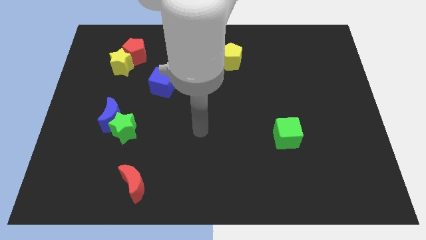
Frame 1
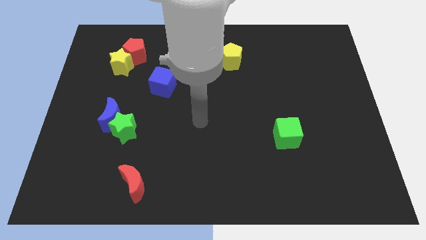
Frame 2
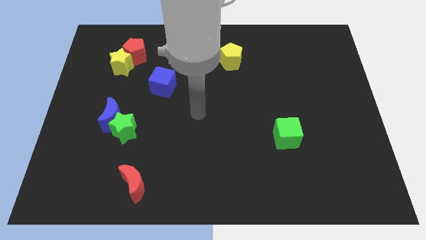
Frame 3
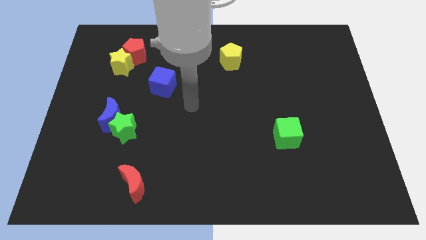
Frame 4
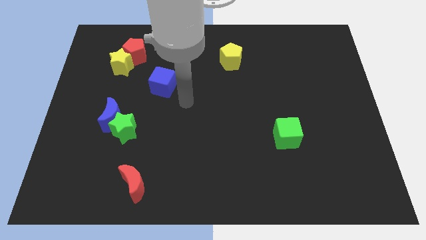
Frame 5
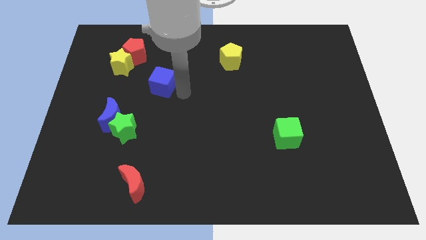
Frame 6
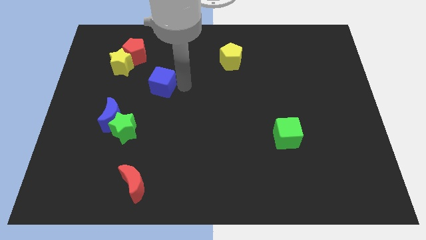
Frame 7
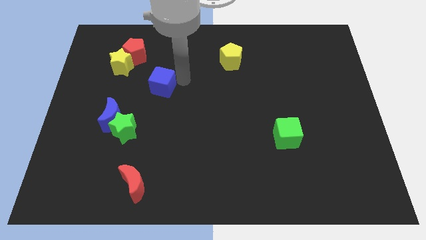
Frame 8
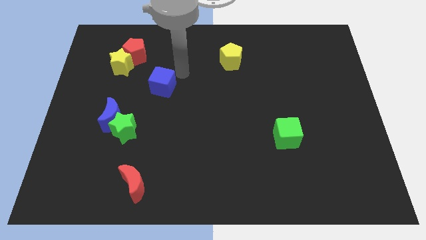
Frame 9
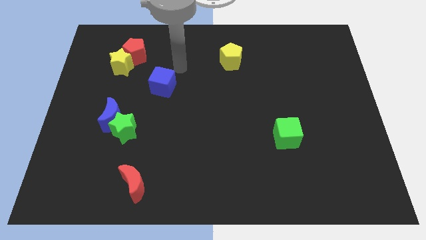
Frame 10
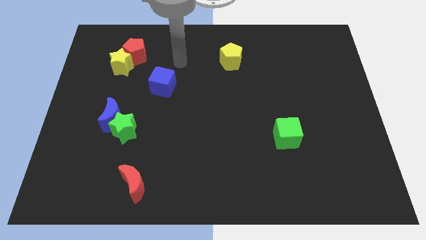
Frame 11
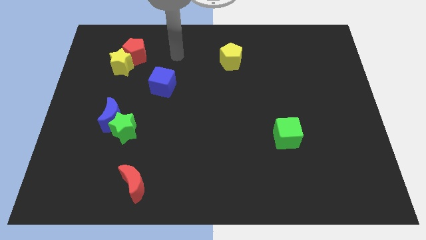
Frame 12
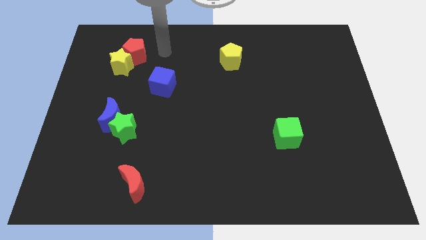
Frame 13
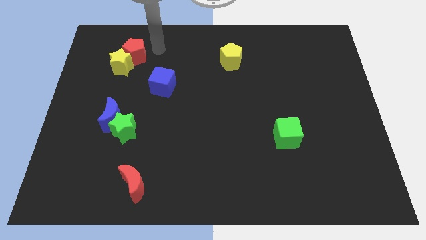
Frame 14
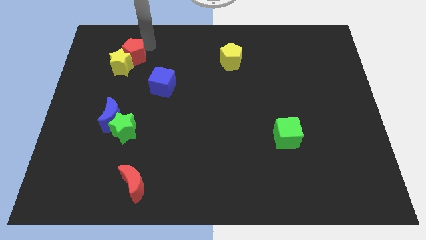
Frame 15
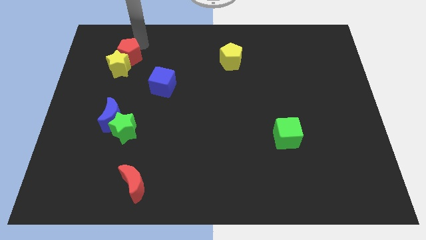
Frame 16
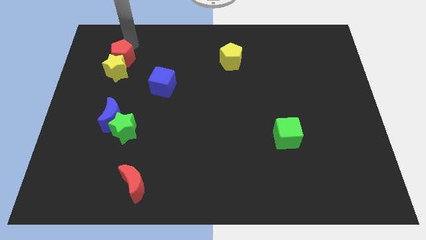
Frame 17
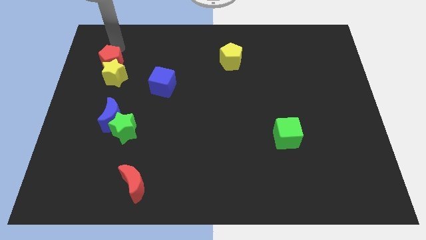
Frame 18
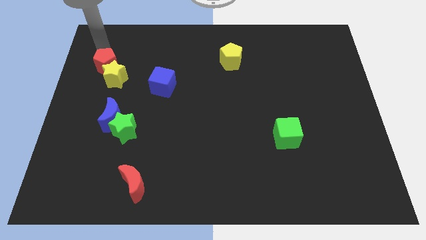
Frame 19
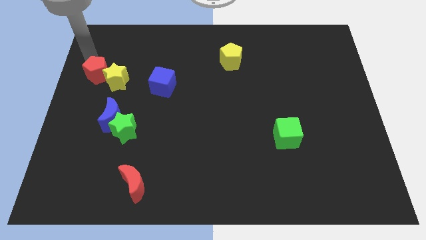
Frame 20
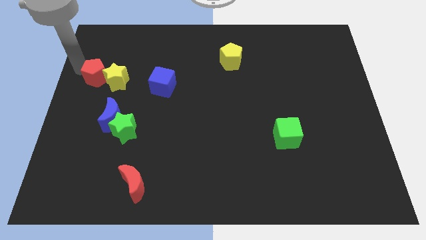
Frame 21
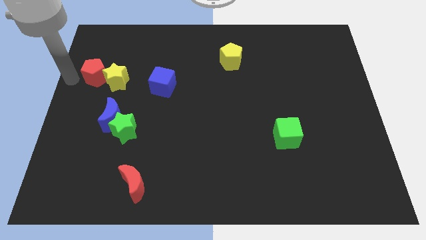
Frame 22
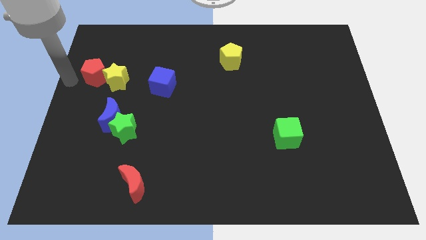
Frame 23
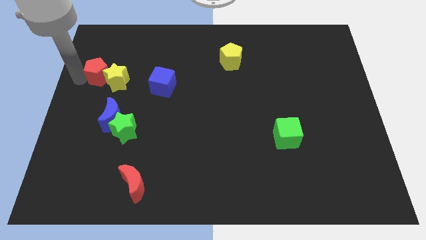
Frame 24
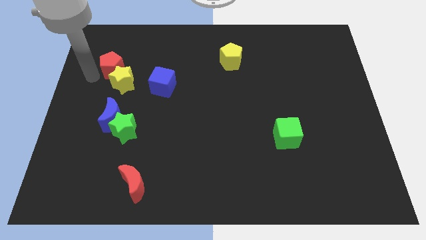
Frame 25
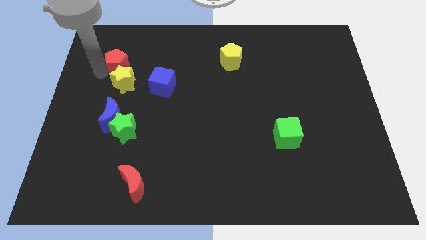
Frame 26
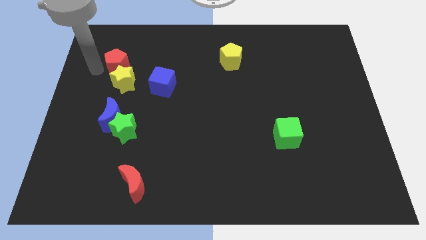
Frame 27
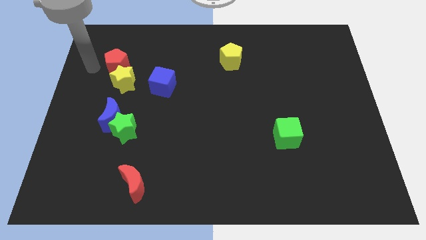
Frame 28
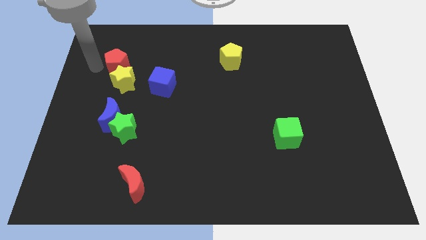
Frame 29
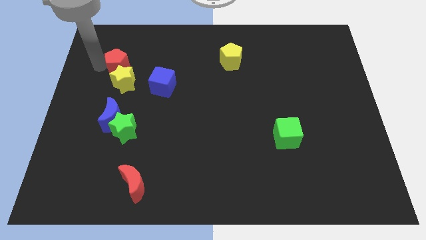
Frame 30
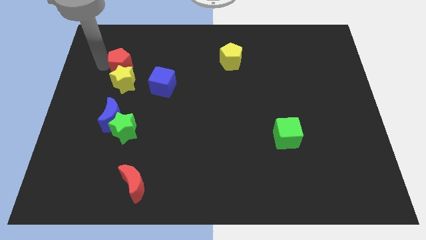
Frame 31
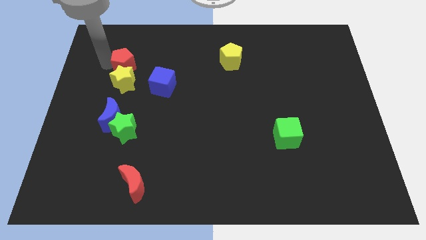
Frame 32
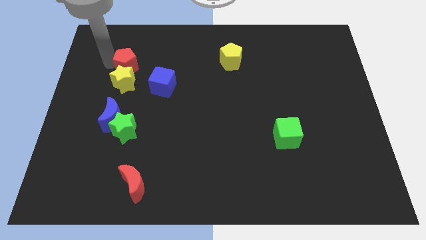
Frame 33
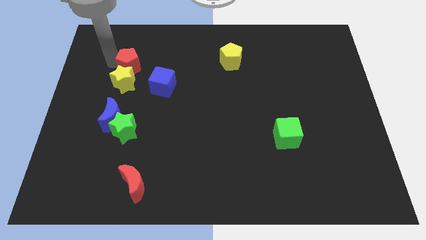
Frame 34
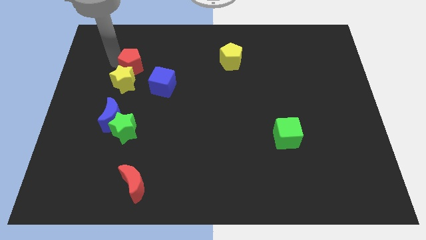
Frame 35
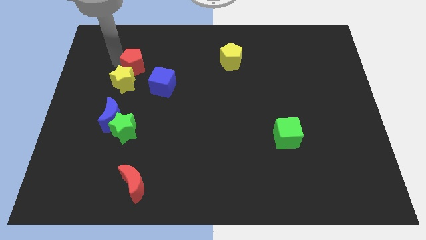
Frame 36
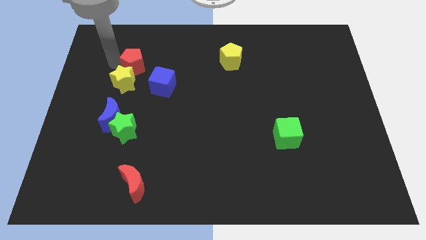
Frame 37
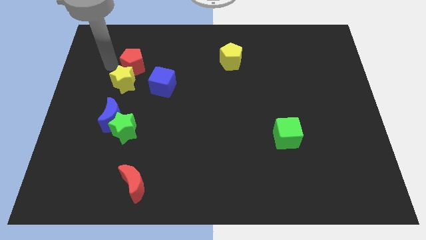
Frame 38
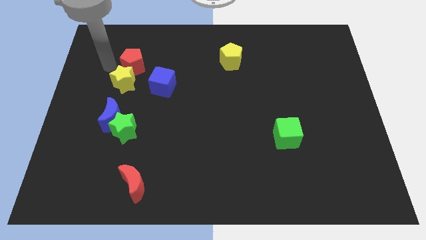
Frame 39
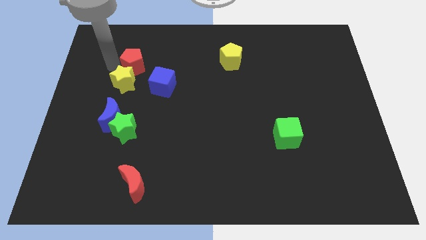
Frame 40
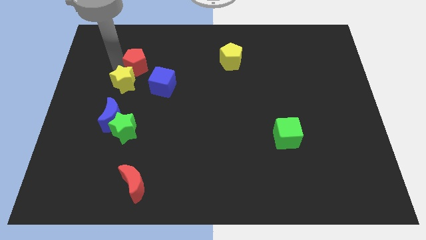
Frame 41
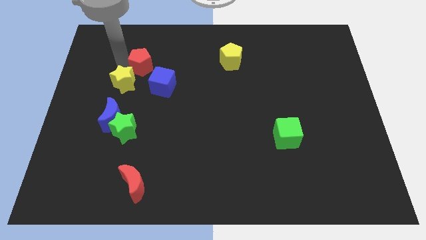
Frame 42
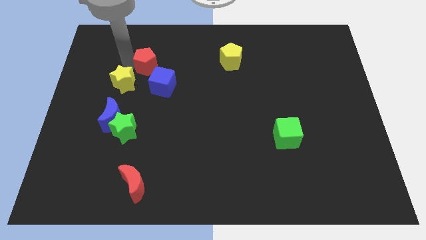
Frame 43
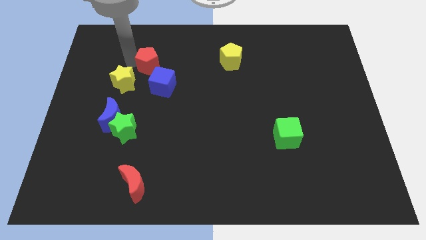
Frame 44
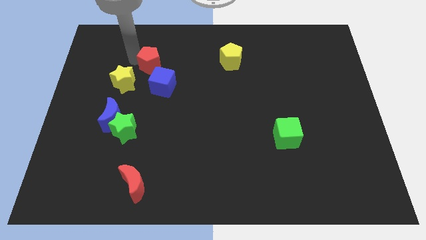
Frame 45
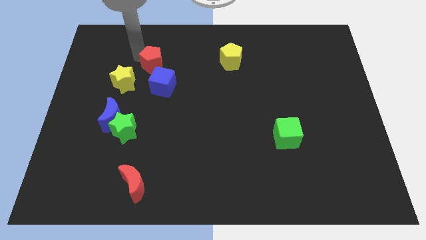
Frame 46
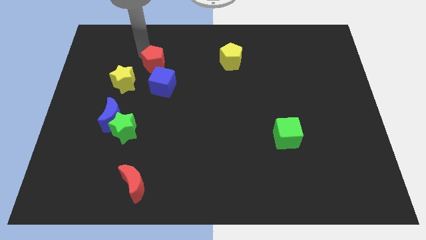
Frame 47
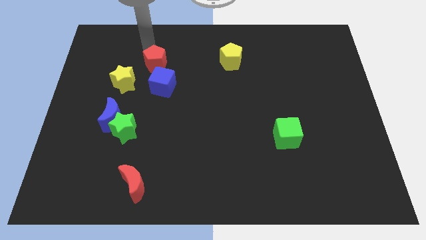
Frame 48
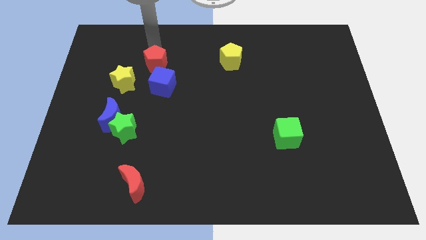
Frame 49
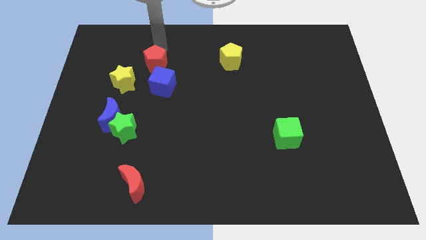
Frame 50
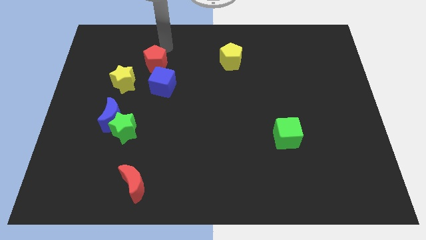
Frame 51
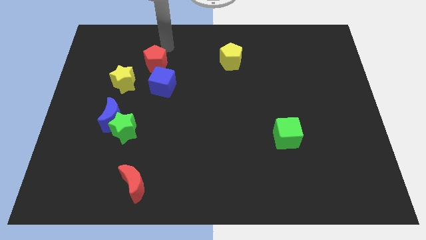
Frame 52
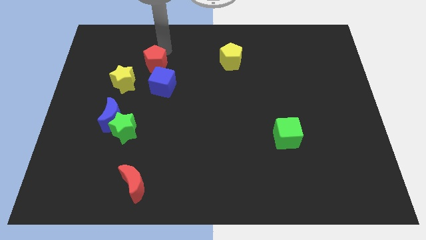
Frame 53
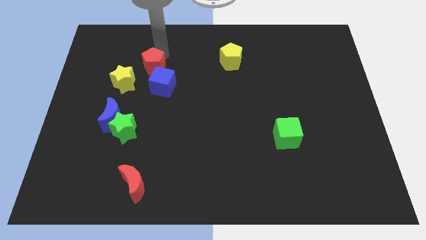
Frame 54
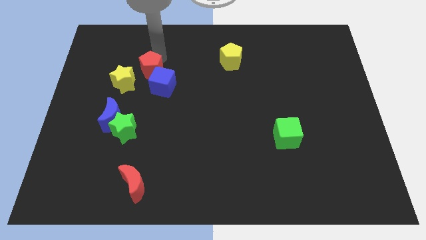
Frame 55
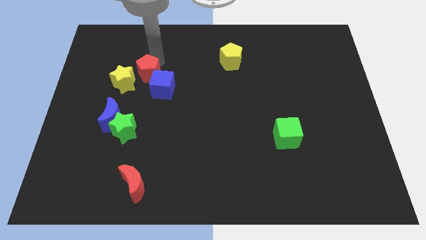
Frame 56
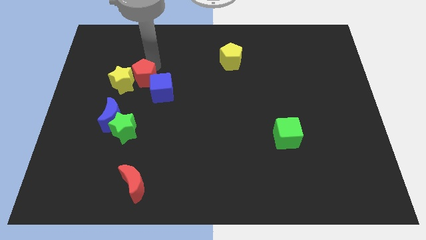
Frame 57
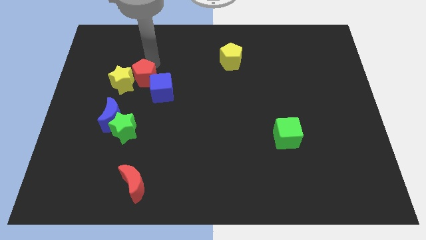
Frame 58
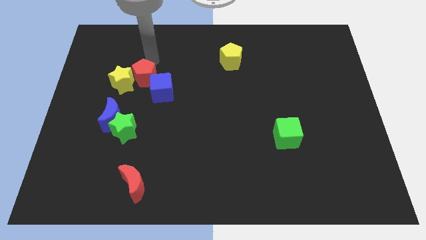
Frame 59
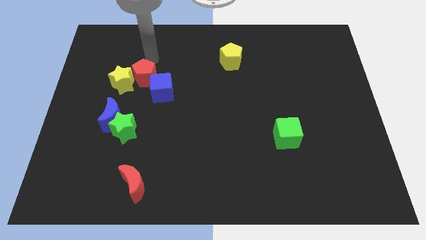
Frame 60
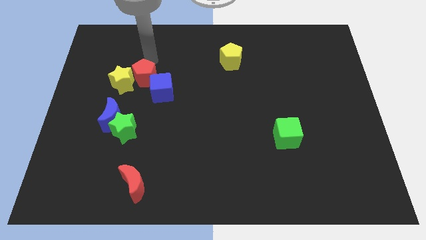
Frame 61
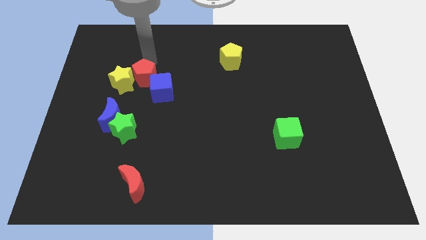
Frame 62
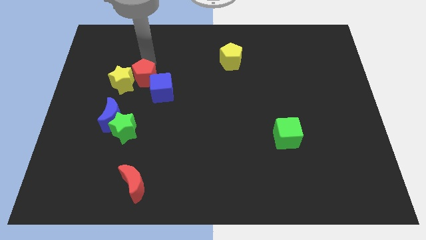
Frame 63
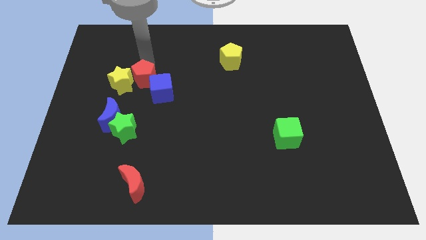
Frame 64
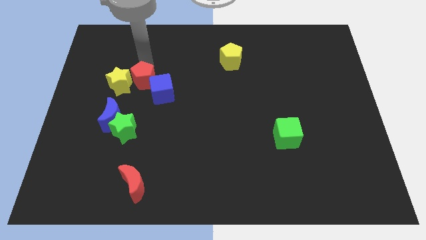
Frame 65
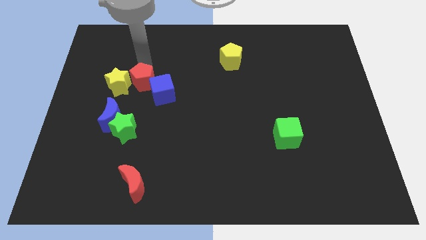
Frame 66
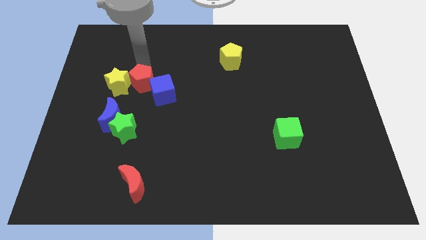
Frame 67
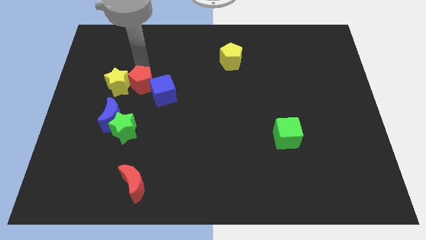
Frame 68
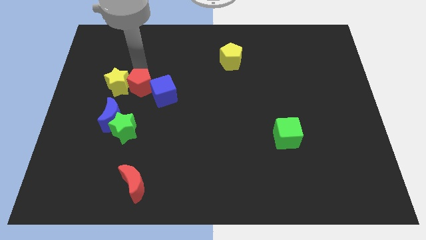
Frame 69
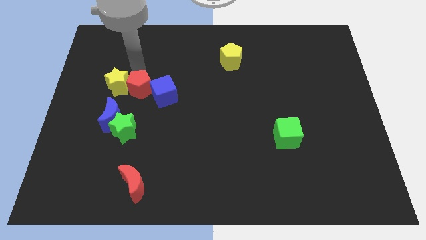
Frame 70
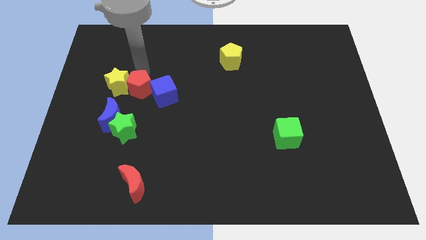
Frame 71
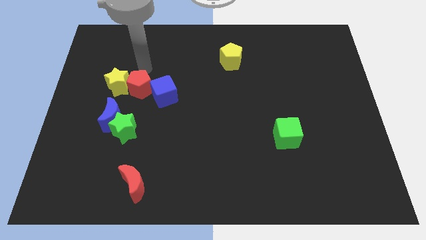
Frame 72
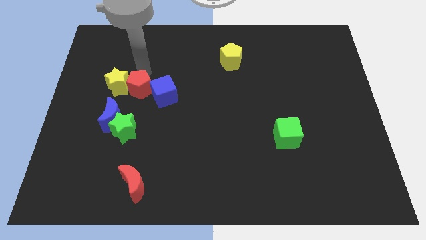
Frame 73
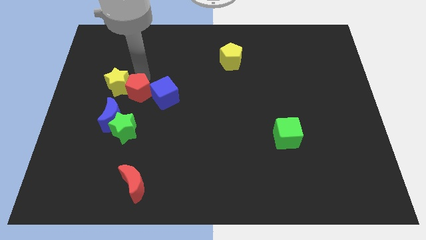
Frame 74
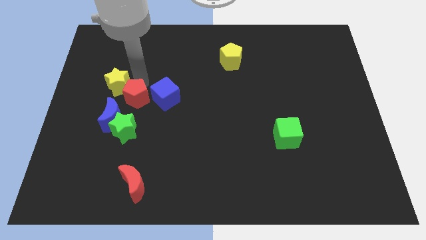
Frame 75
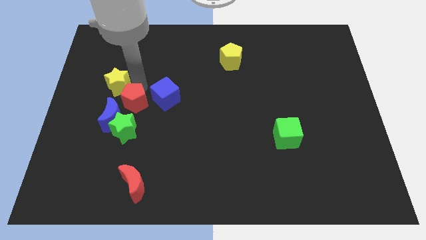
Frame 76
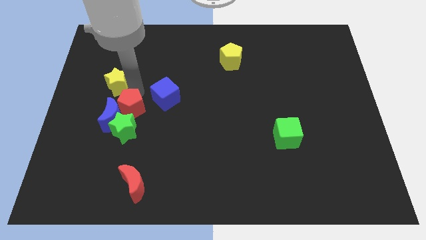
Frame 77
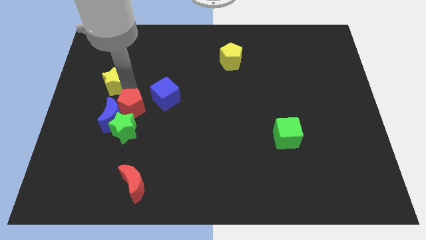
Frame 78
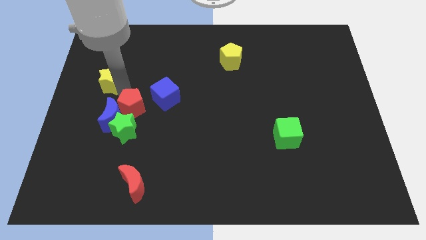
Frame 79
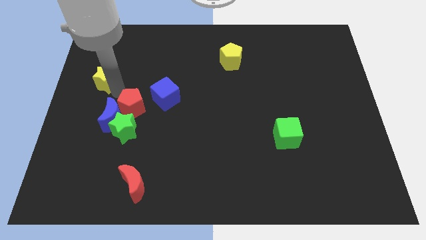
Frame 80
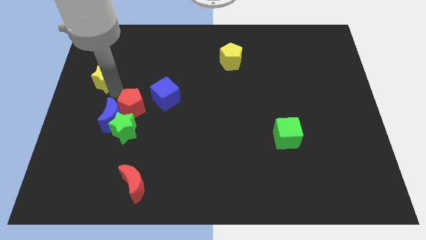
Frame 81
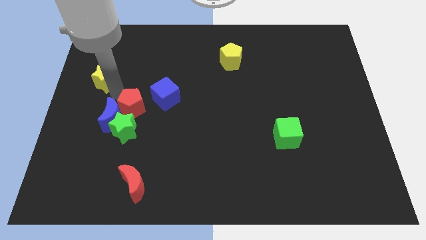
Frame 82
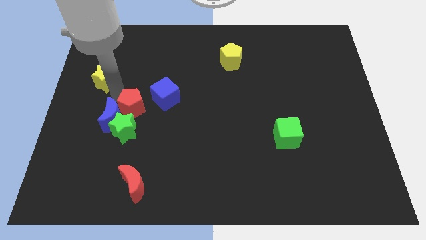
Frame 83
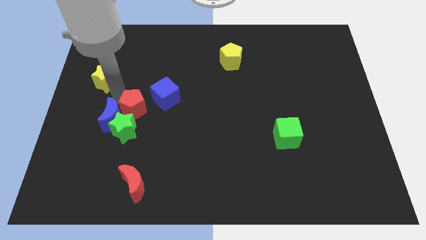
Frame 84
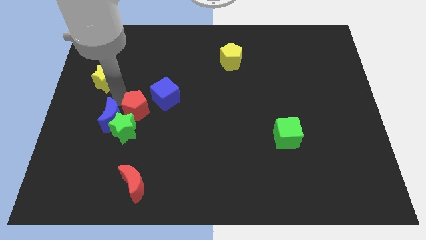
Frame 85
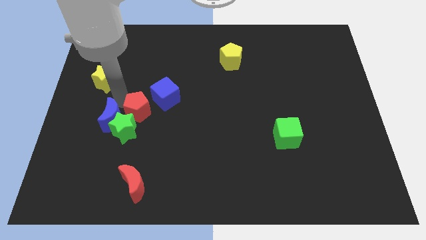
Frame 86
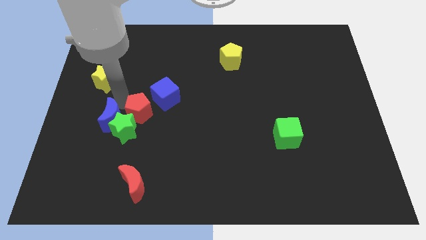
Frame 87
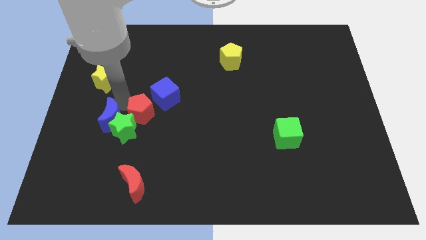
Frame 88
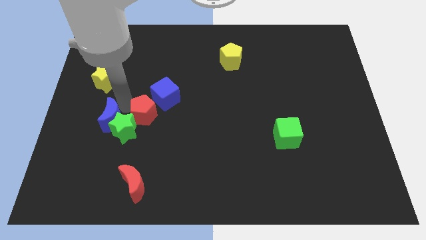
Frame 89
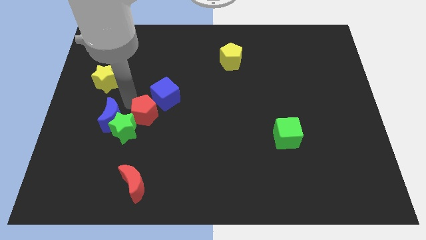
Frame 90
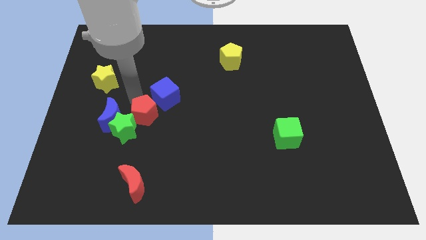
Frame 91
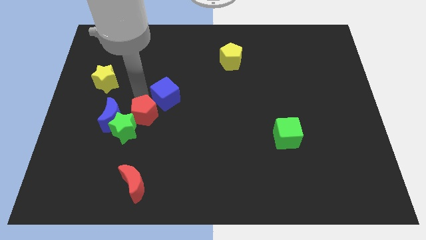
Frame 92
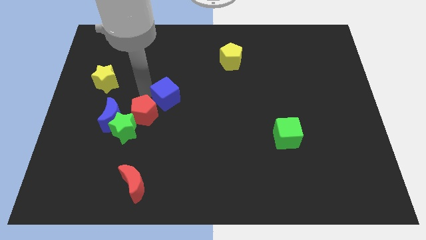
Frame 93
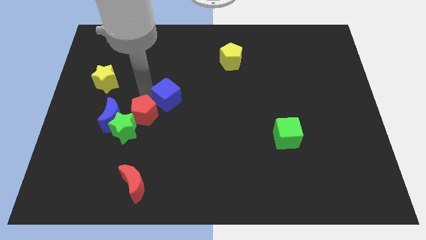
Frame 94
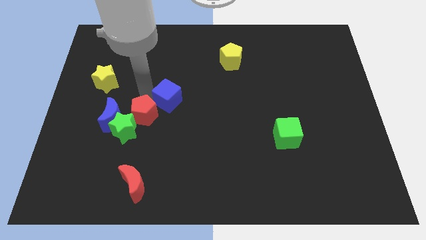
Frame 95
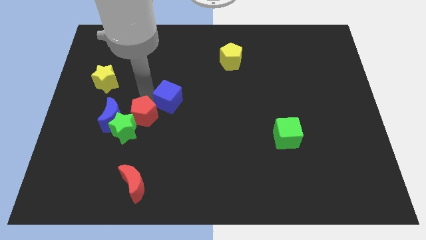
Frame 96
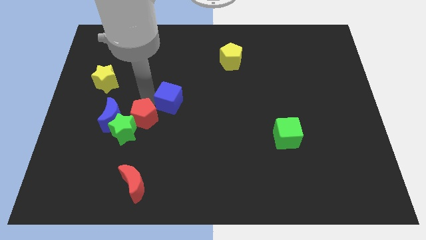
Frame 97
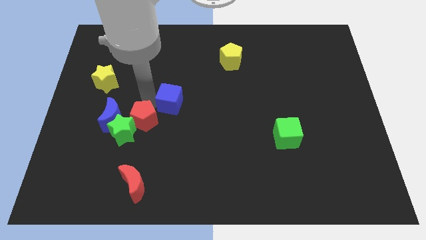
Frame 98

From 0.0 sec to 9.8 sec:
push the red pentagon down
